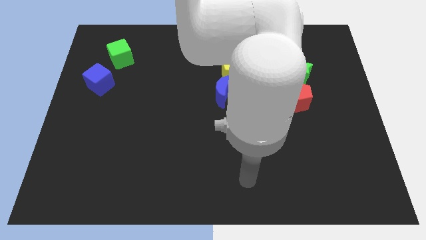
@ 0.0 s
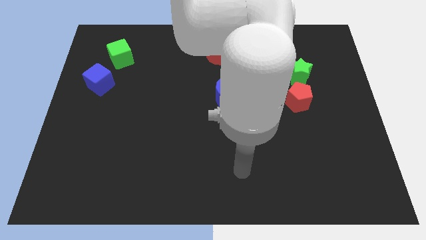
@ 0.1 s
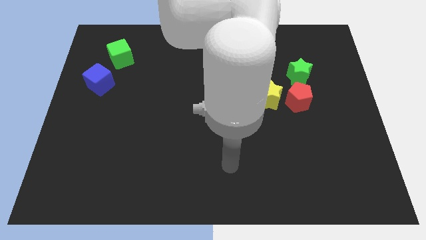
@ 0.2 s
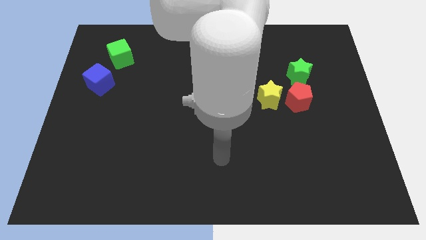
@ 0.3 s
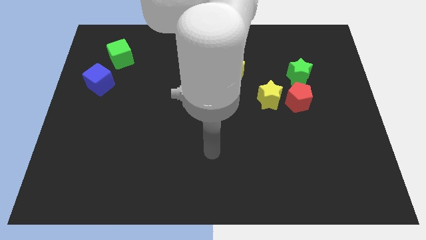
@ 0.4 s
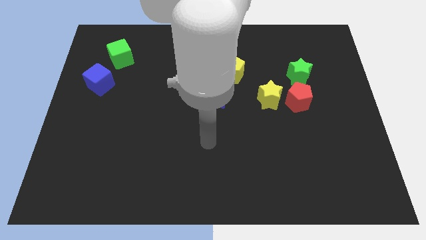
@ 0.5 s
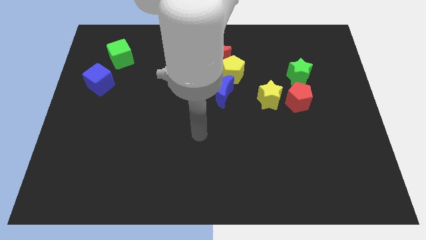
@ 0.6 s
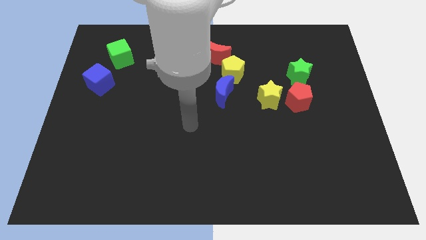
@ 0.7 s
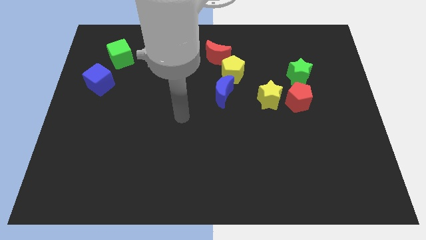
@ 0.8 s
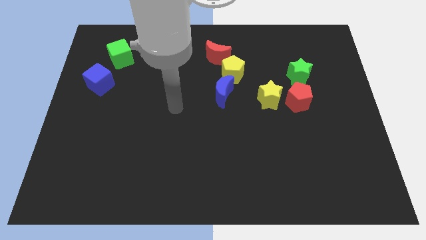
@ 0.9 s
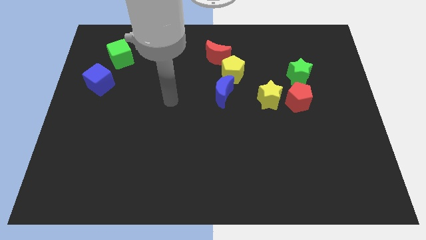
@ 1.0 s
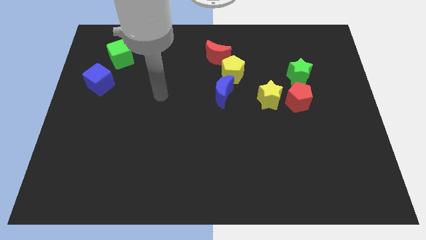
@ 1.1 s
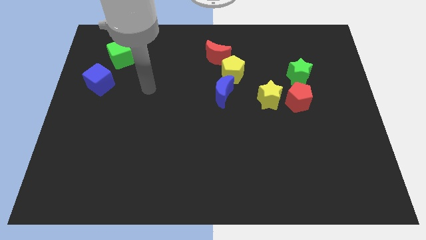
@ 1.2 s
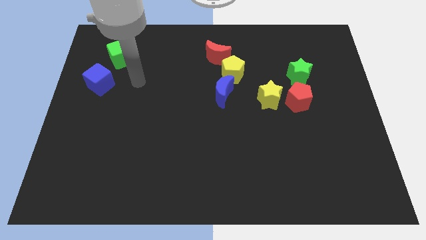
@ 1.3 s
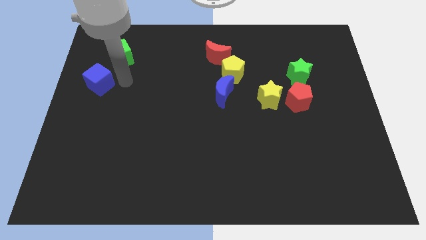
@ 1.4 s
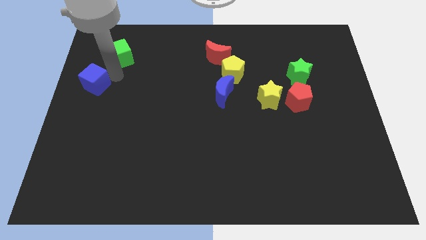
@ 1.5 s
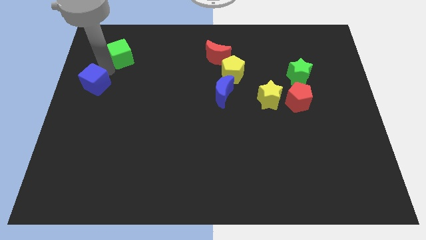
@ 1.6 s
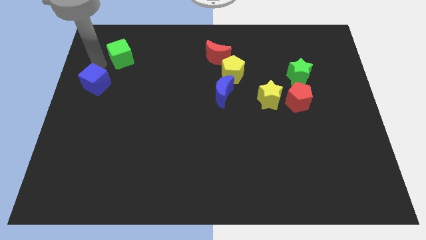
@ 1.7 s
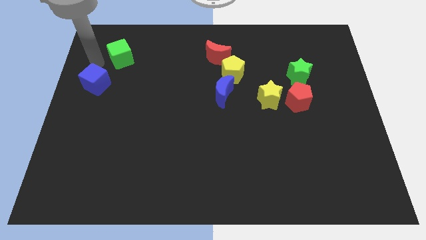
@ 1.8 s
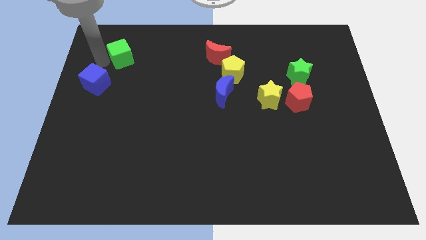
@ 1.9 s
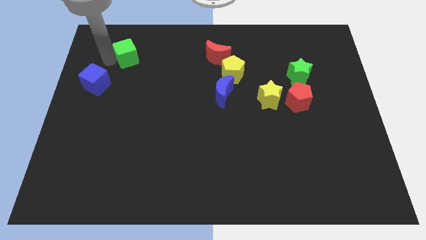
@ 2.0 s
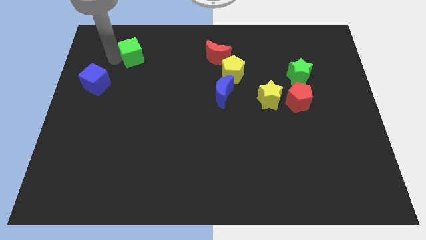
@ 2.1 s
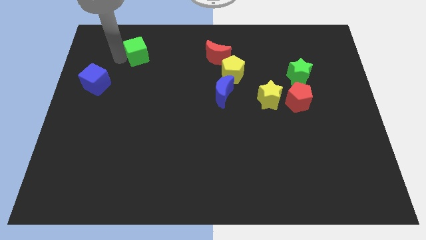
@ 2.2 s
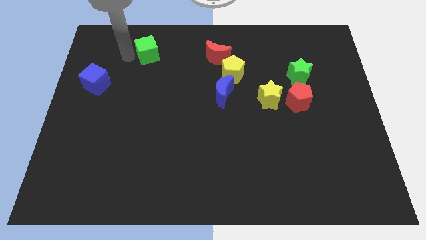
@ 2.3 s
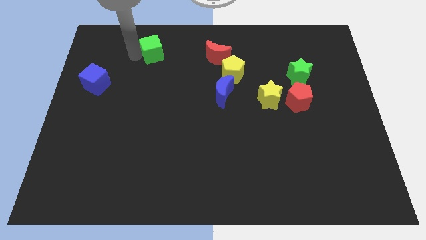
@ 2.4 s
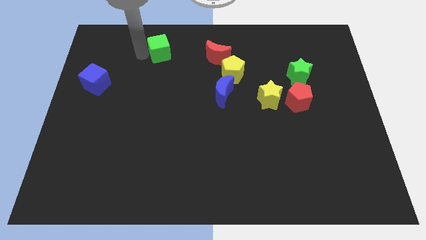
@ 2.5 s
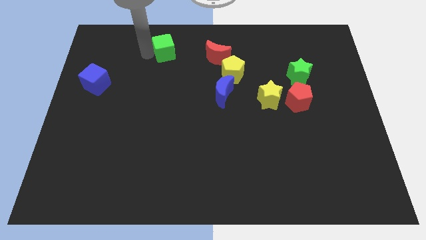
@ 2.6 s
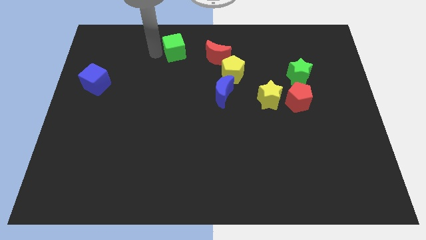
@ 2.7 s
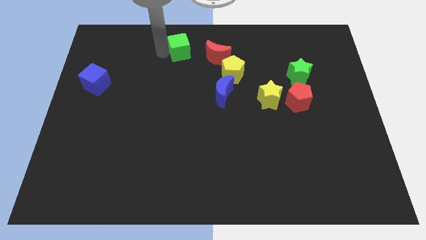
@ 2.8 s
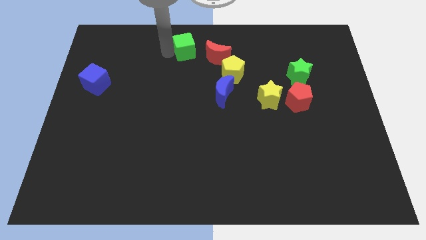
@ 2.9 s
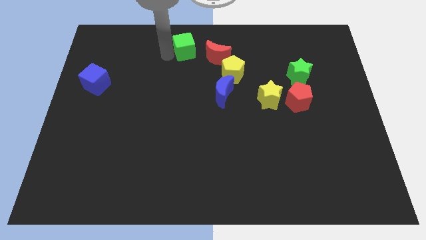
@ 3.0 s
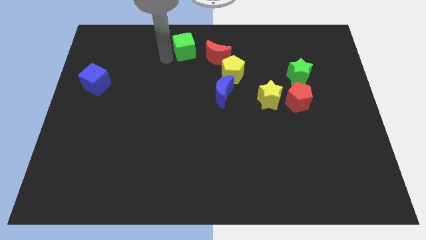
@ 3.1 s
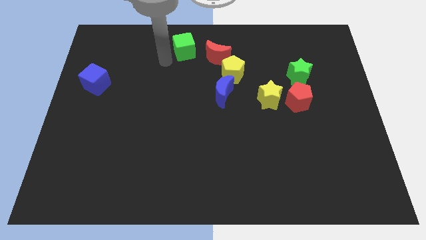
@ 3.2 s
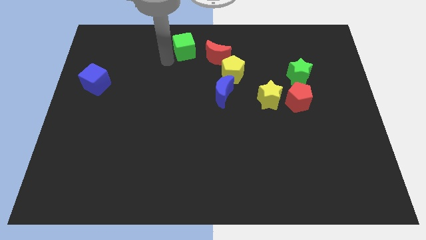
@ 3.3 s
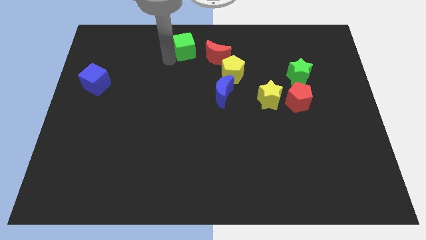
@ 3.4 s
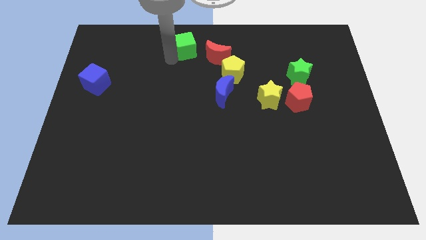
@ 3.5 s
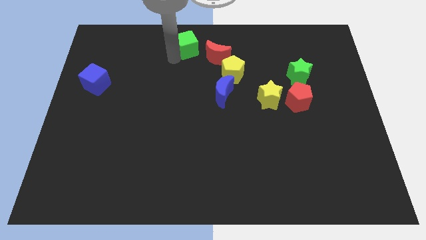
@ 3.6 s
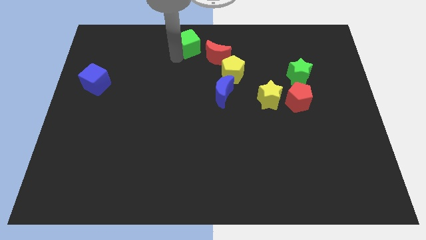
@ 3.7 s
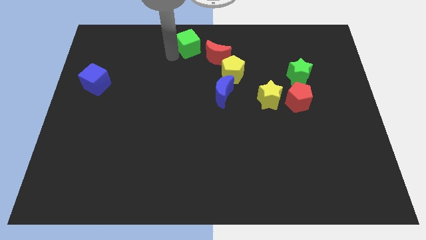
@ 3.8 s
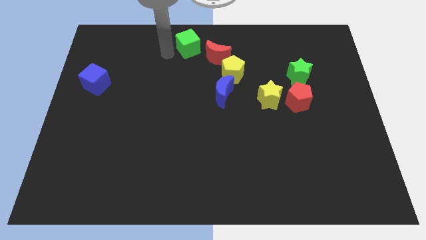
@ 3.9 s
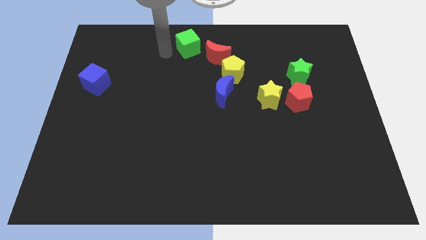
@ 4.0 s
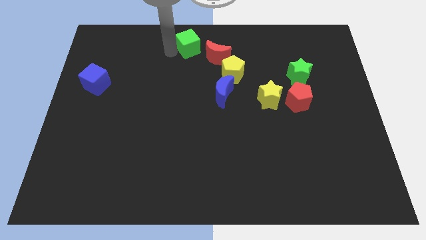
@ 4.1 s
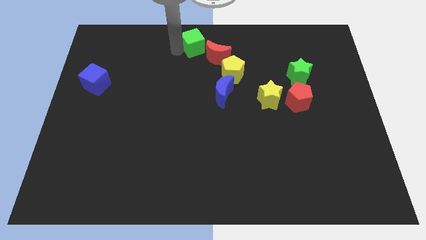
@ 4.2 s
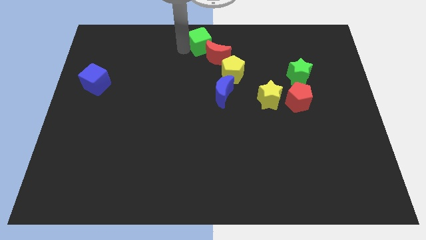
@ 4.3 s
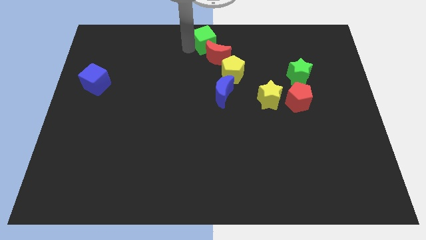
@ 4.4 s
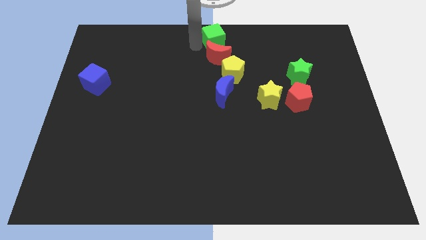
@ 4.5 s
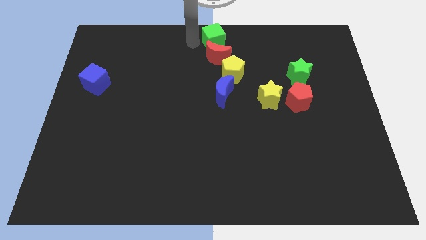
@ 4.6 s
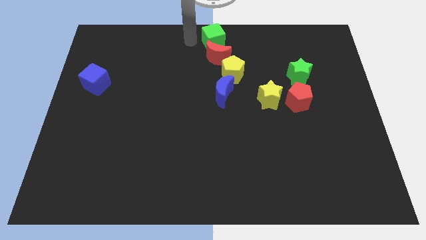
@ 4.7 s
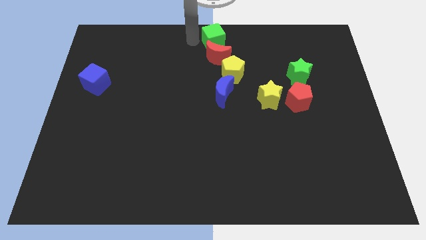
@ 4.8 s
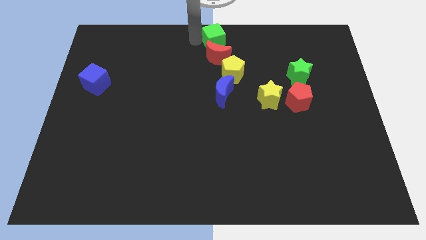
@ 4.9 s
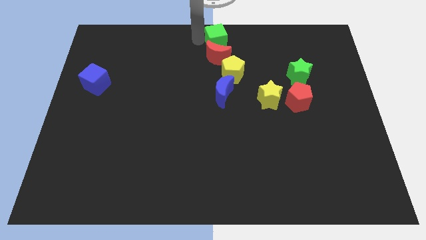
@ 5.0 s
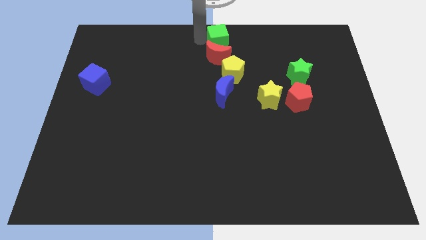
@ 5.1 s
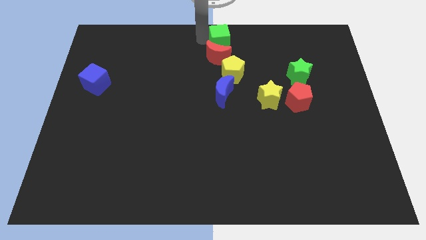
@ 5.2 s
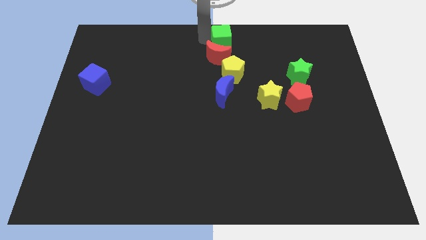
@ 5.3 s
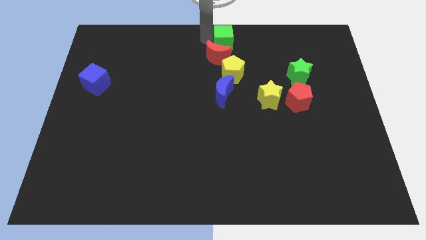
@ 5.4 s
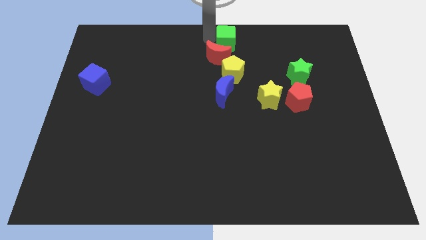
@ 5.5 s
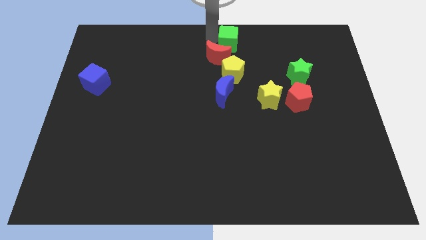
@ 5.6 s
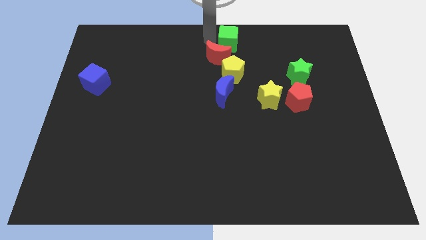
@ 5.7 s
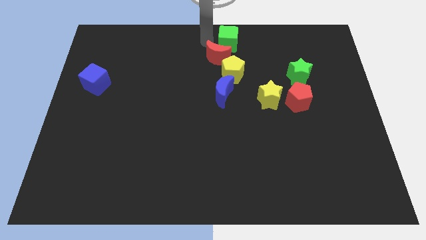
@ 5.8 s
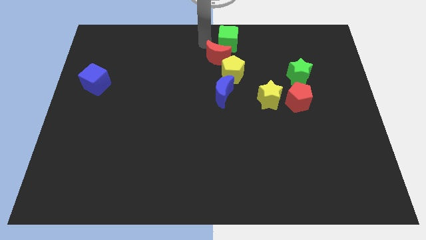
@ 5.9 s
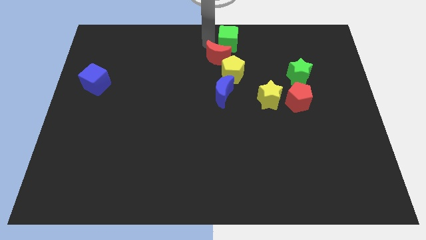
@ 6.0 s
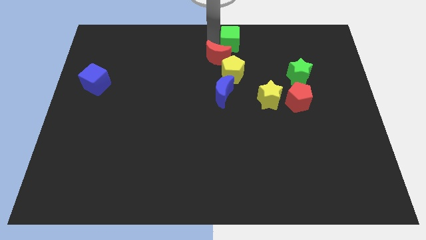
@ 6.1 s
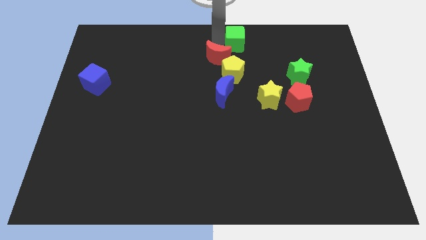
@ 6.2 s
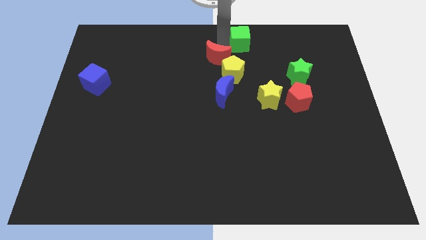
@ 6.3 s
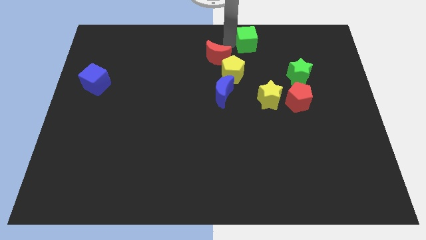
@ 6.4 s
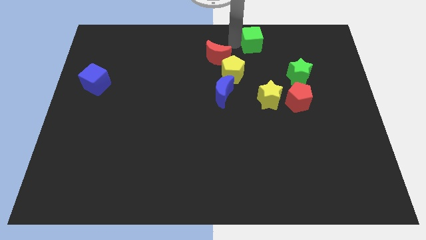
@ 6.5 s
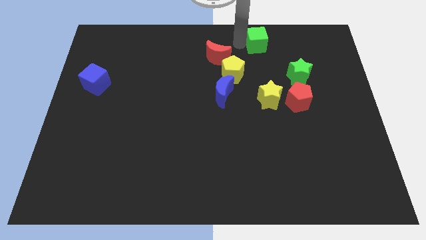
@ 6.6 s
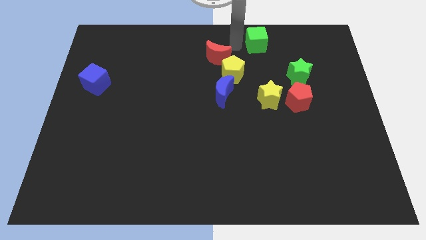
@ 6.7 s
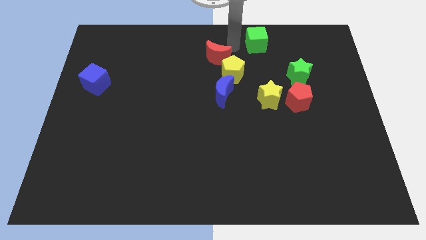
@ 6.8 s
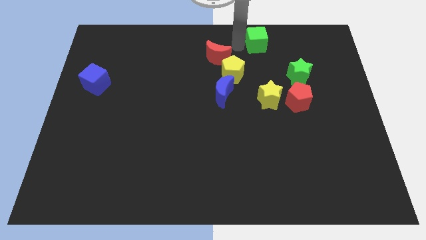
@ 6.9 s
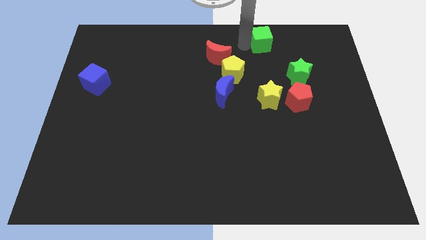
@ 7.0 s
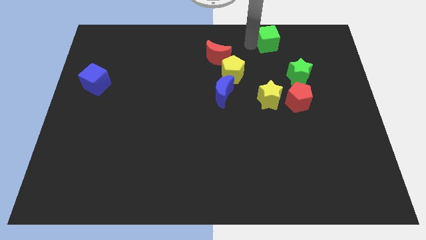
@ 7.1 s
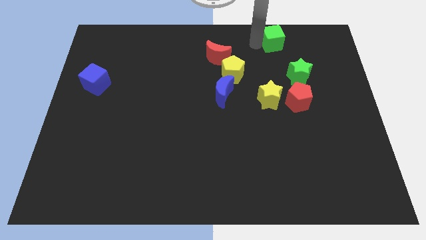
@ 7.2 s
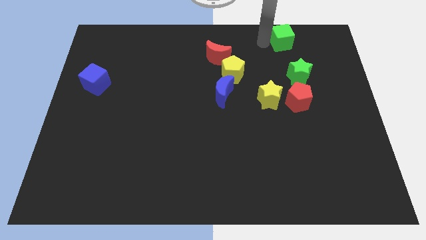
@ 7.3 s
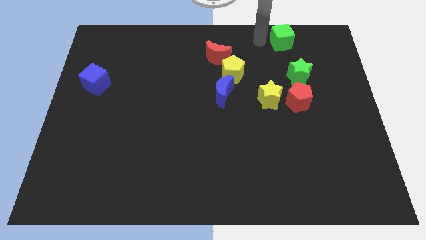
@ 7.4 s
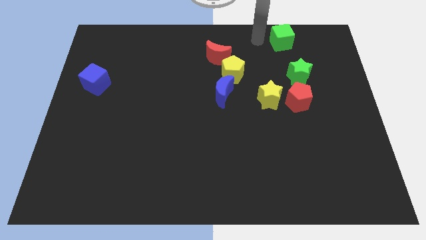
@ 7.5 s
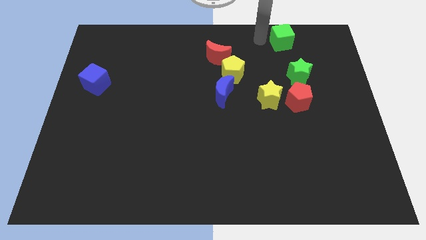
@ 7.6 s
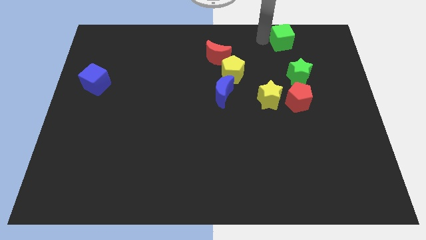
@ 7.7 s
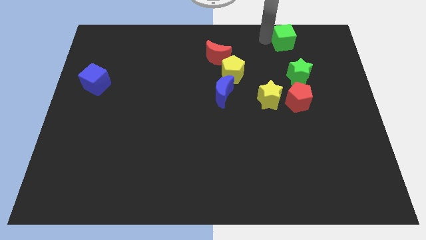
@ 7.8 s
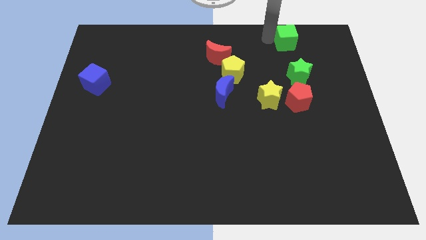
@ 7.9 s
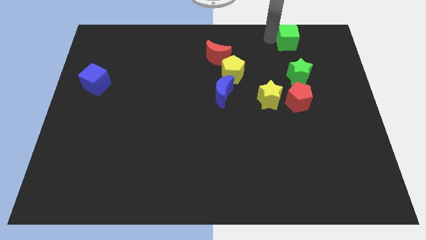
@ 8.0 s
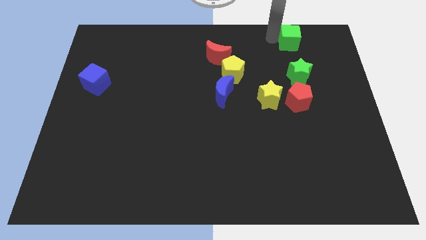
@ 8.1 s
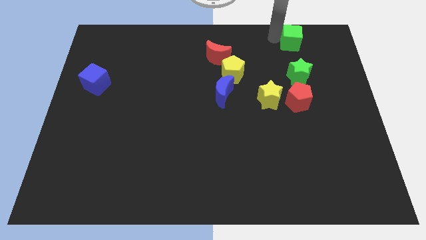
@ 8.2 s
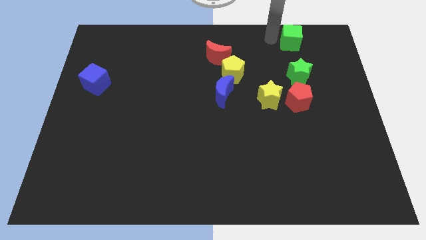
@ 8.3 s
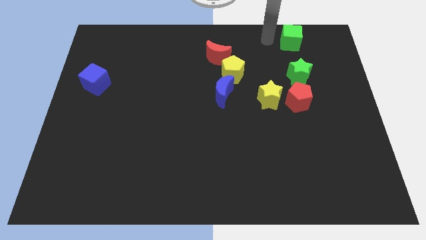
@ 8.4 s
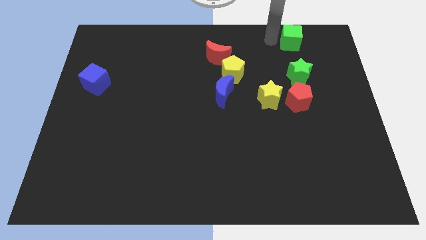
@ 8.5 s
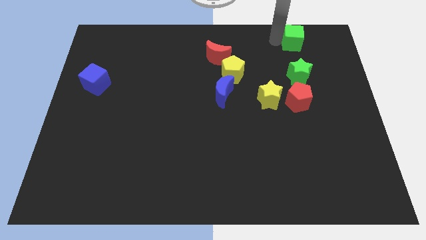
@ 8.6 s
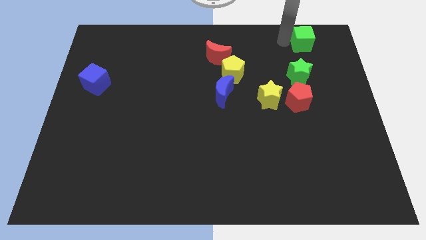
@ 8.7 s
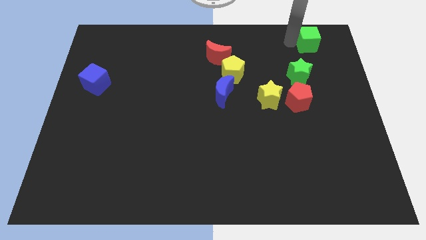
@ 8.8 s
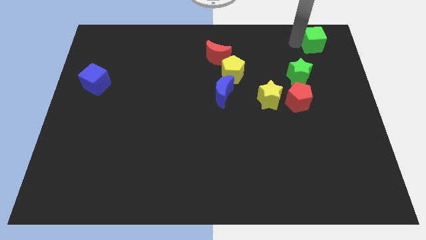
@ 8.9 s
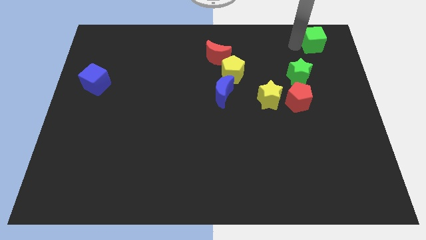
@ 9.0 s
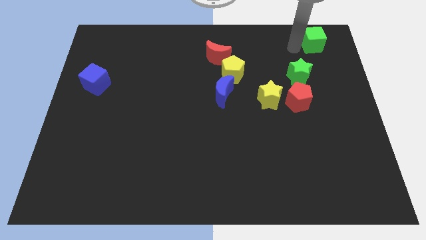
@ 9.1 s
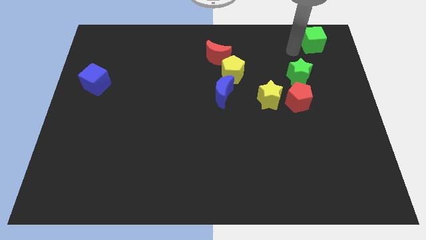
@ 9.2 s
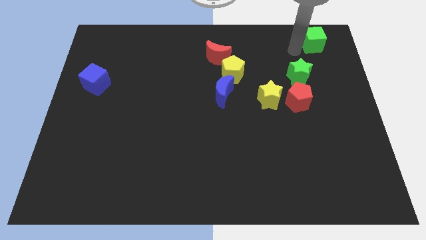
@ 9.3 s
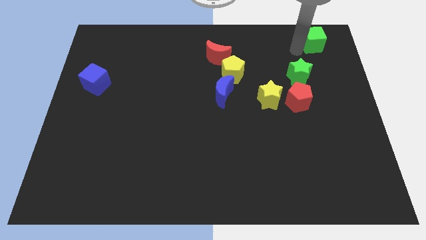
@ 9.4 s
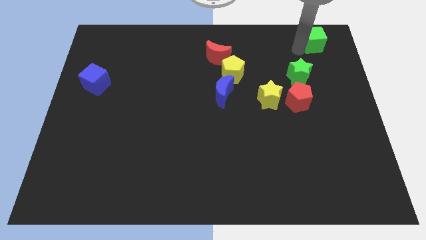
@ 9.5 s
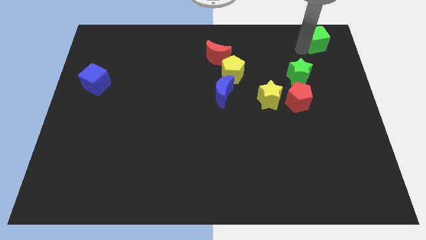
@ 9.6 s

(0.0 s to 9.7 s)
put the green cube to the top right of the board
